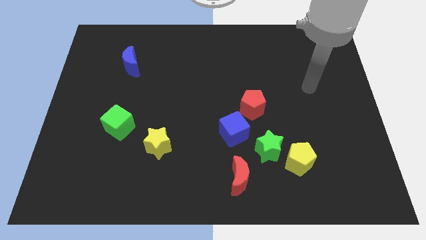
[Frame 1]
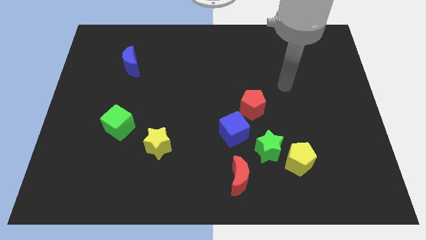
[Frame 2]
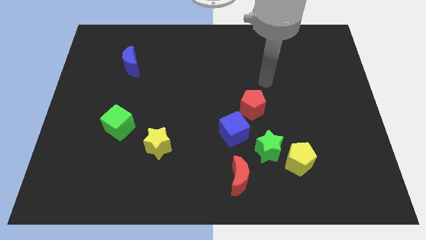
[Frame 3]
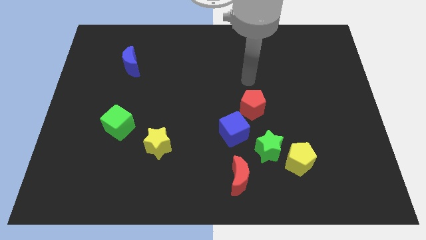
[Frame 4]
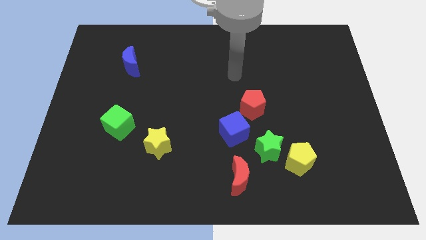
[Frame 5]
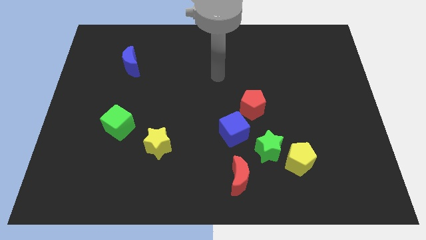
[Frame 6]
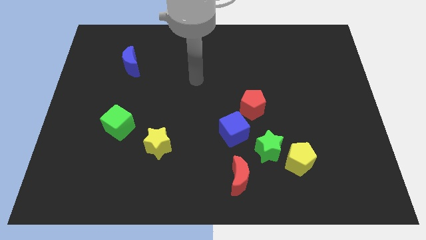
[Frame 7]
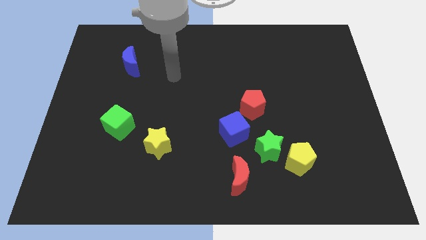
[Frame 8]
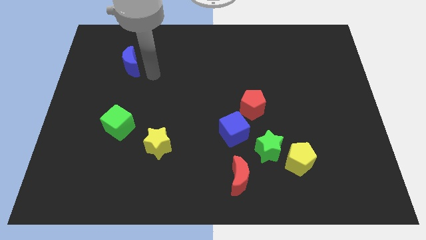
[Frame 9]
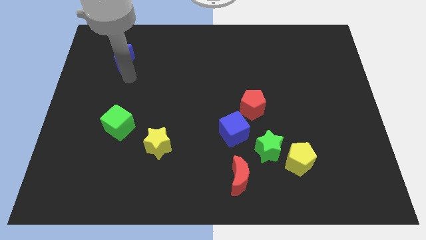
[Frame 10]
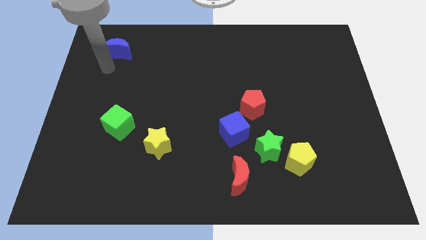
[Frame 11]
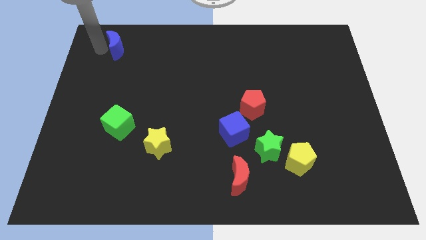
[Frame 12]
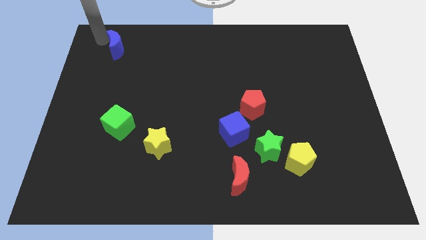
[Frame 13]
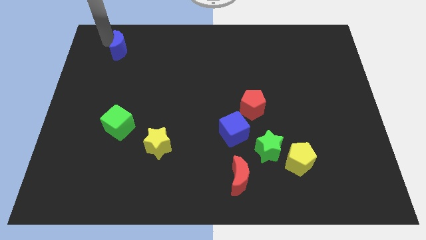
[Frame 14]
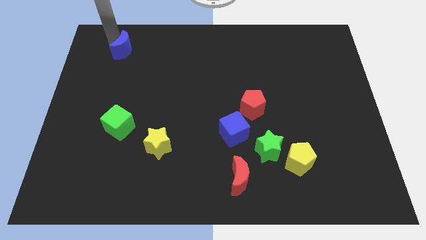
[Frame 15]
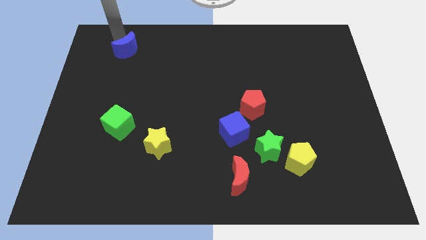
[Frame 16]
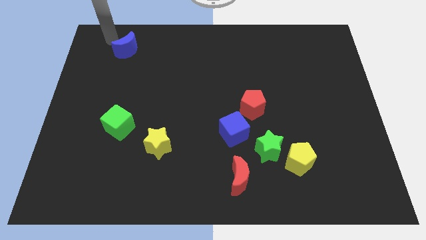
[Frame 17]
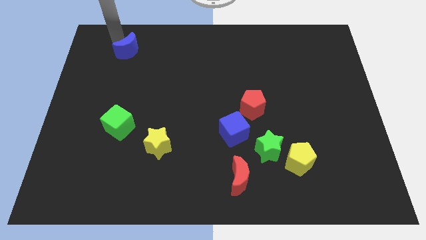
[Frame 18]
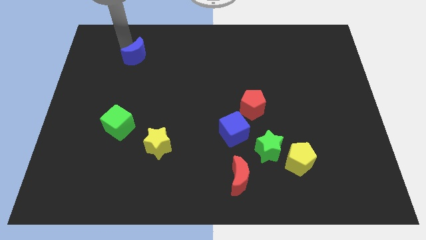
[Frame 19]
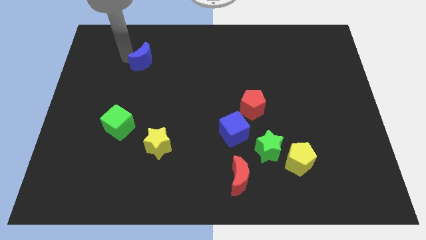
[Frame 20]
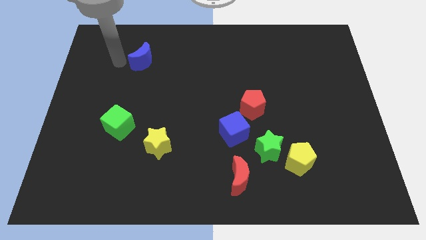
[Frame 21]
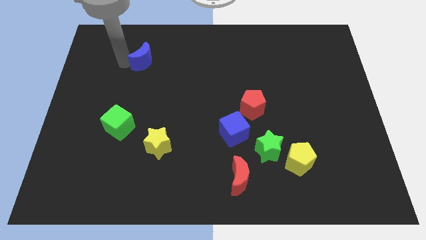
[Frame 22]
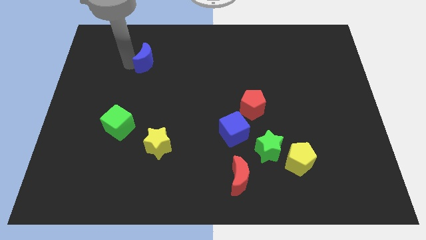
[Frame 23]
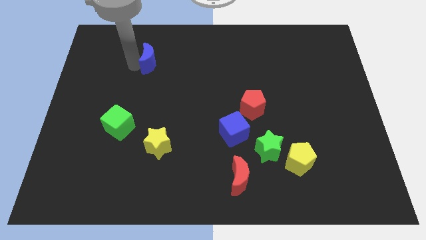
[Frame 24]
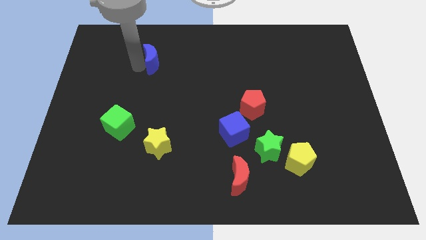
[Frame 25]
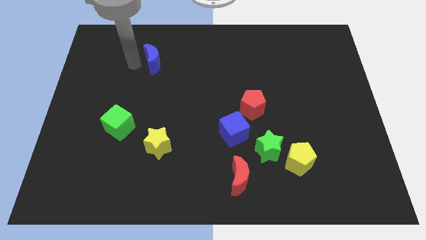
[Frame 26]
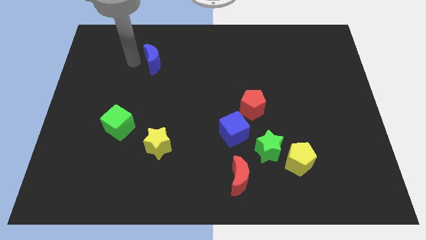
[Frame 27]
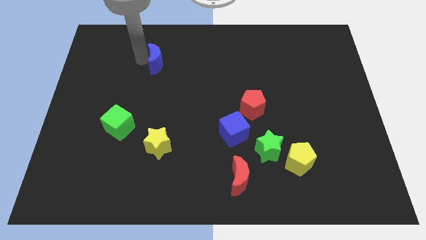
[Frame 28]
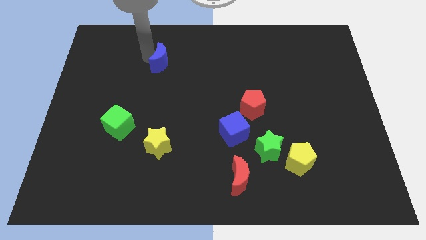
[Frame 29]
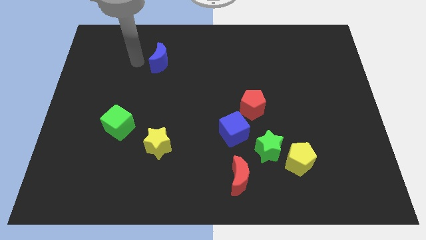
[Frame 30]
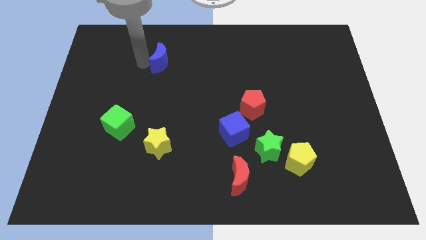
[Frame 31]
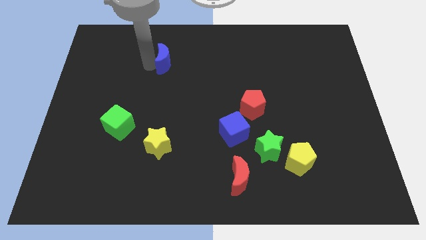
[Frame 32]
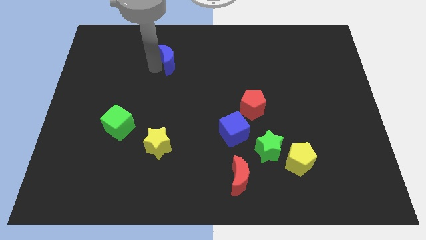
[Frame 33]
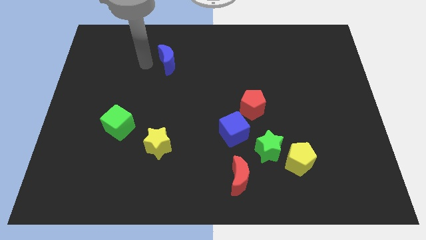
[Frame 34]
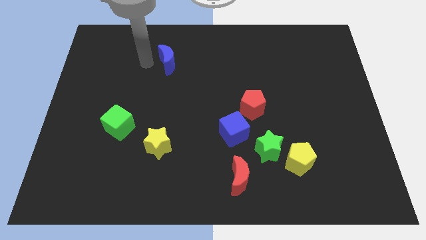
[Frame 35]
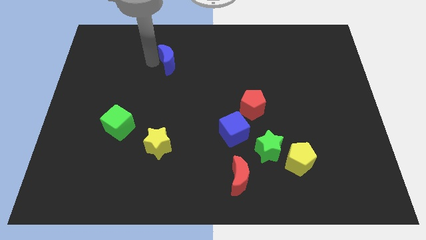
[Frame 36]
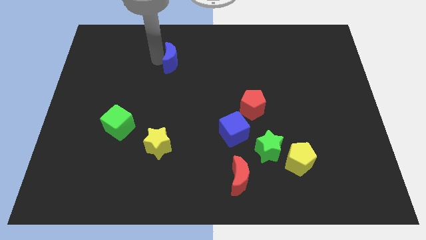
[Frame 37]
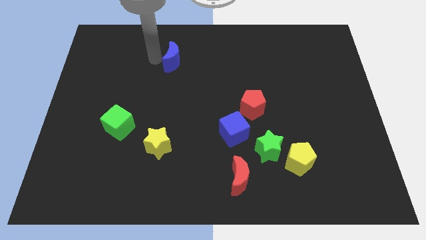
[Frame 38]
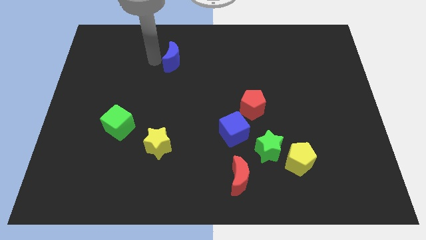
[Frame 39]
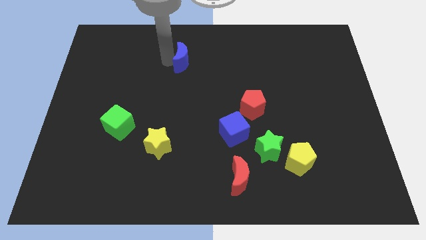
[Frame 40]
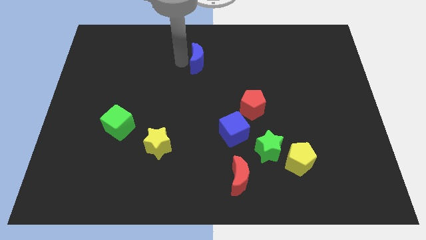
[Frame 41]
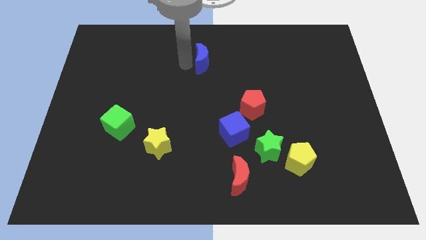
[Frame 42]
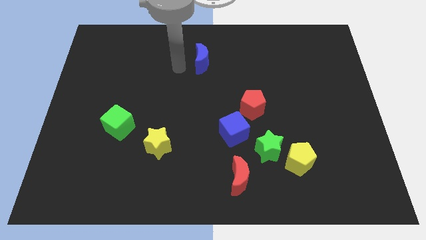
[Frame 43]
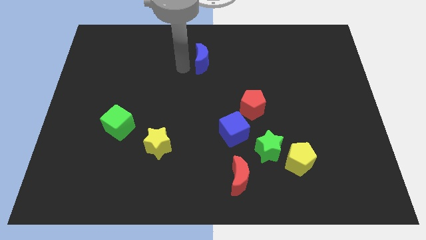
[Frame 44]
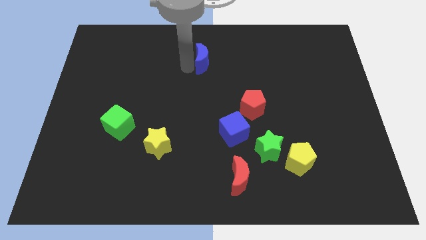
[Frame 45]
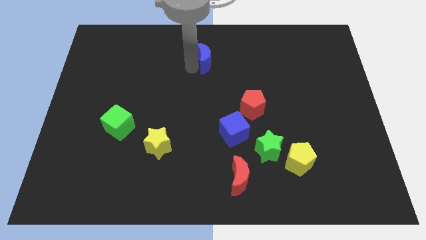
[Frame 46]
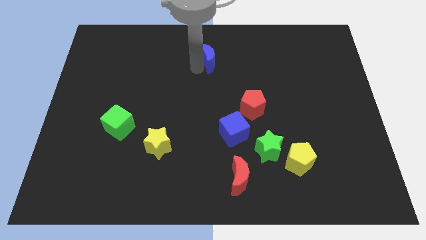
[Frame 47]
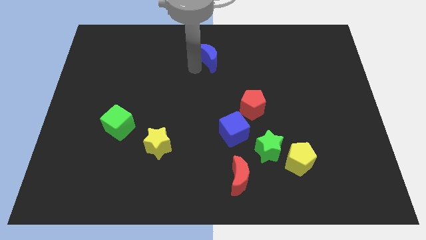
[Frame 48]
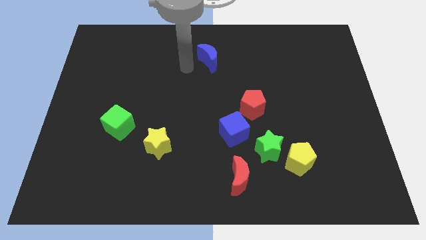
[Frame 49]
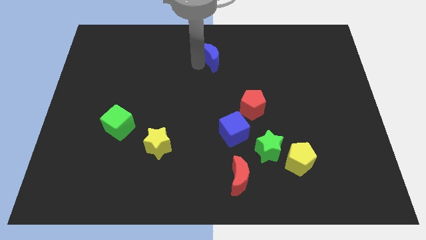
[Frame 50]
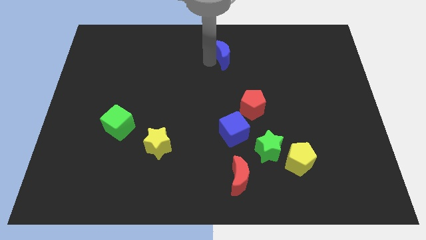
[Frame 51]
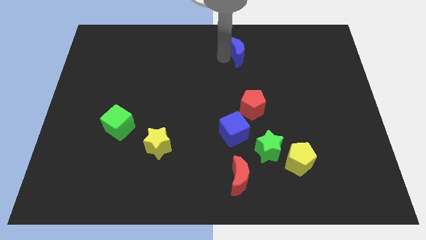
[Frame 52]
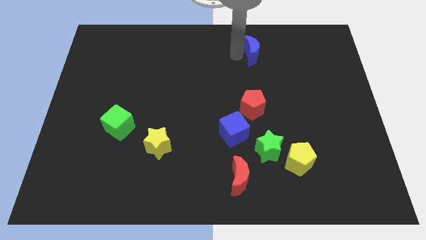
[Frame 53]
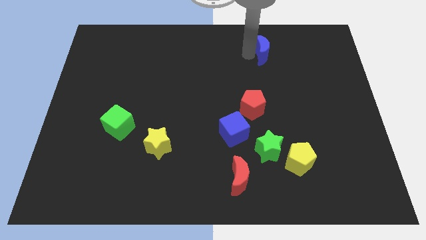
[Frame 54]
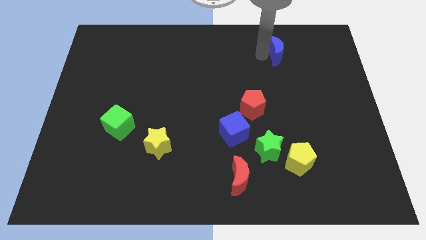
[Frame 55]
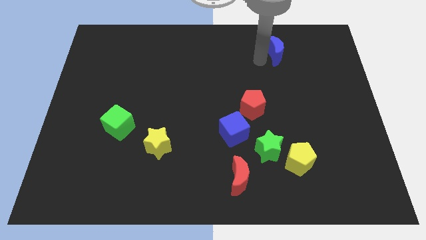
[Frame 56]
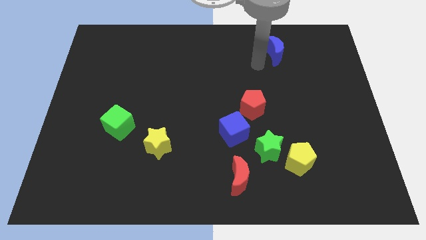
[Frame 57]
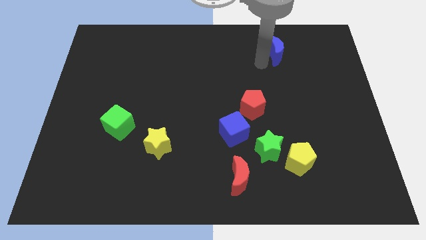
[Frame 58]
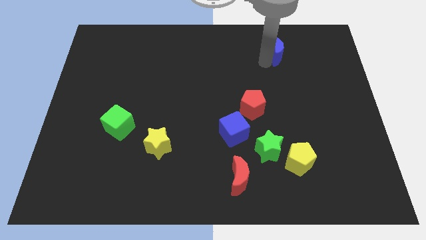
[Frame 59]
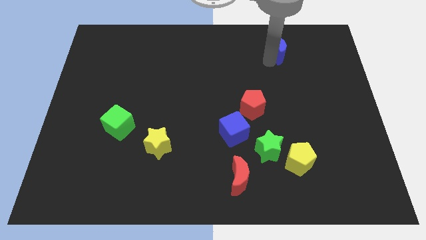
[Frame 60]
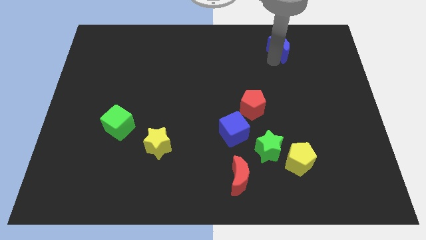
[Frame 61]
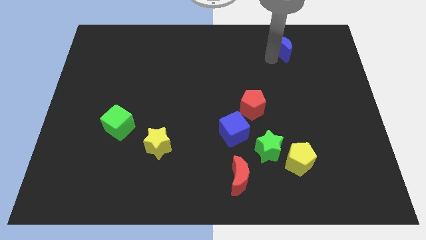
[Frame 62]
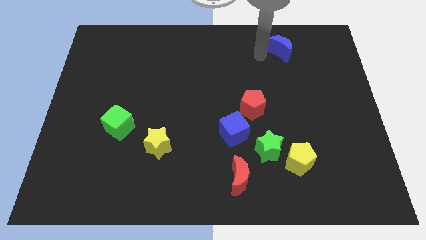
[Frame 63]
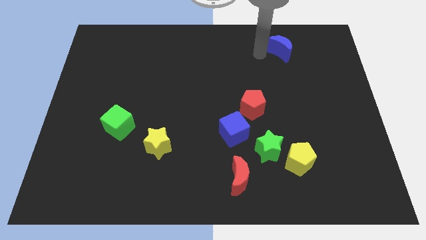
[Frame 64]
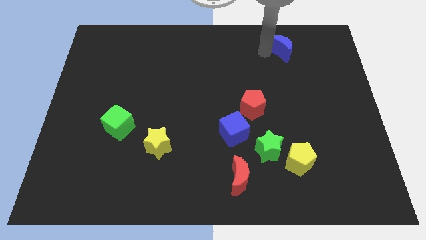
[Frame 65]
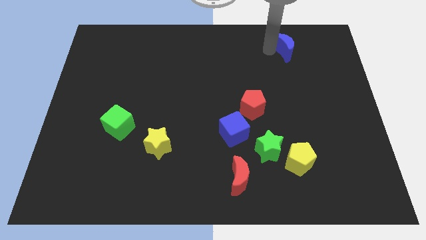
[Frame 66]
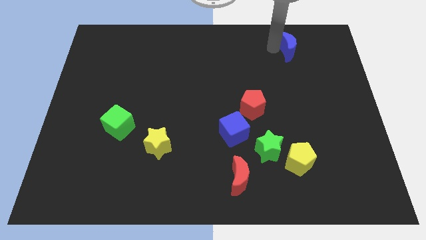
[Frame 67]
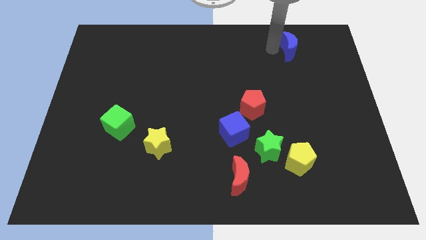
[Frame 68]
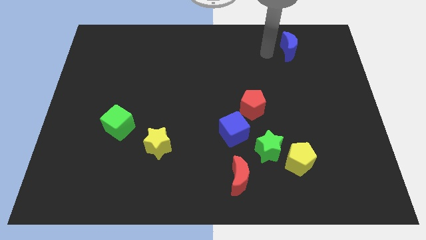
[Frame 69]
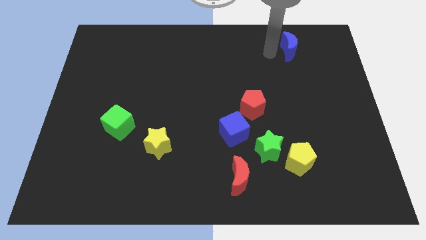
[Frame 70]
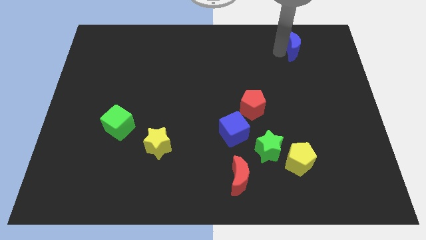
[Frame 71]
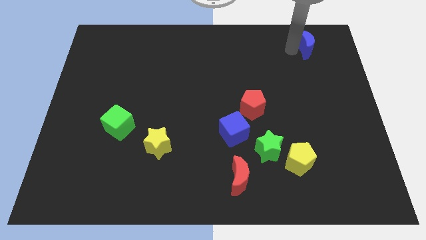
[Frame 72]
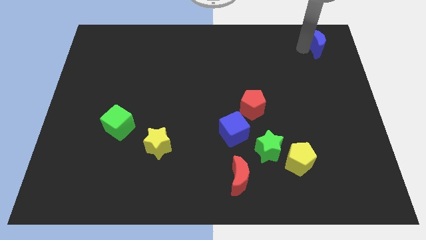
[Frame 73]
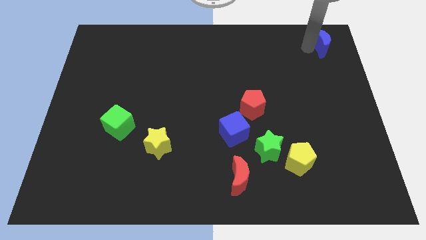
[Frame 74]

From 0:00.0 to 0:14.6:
move the blue moon to the upper right corner
